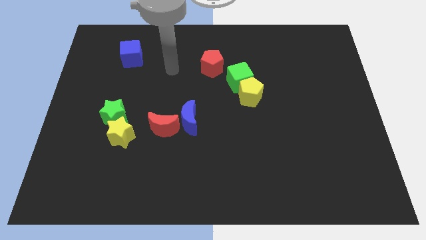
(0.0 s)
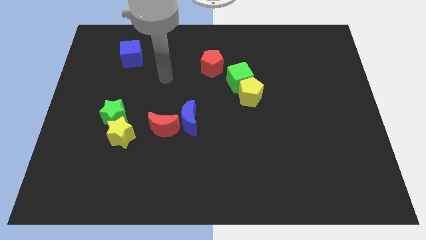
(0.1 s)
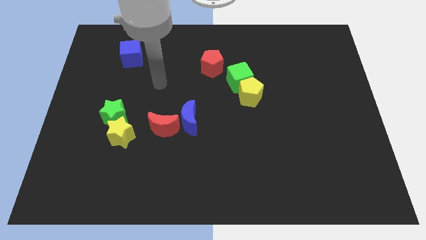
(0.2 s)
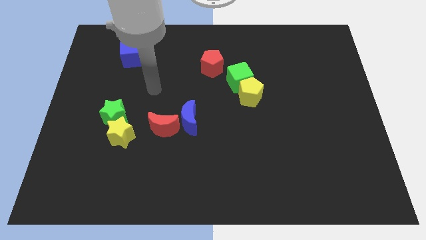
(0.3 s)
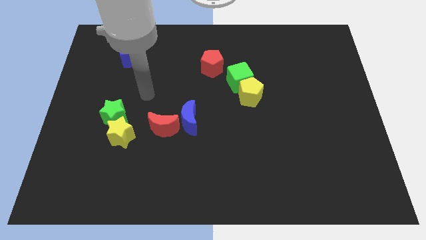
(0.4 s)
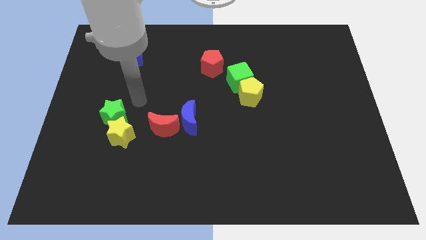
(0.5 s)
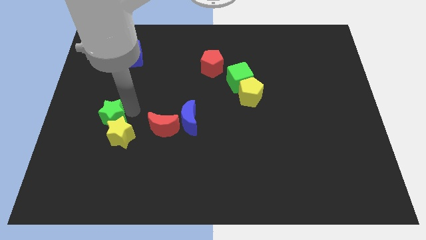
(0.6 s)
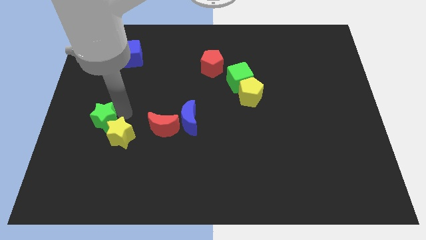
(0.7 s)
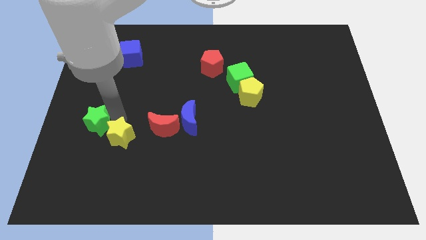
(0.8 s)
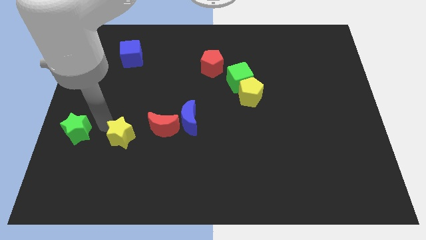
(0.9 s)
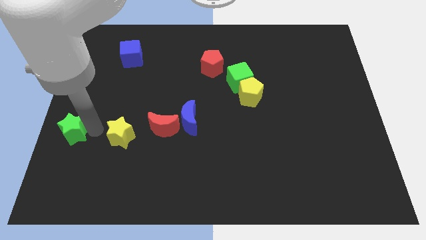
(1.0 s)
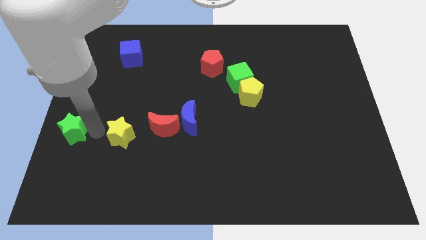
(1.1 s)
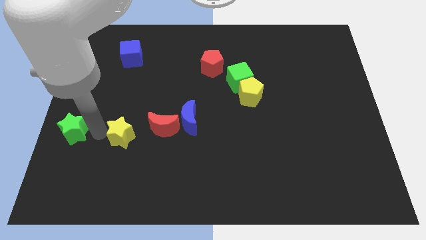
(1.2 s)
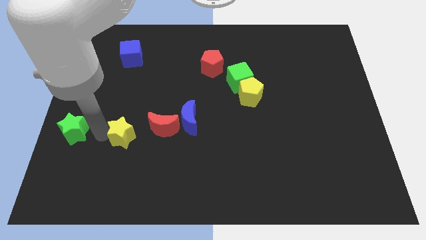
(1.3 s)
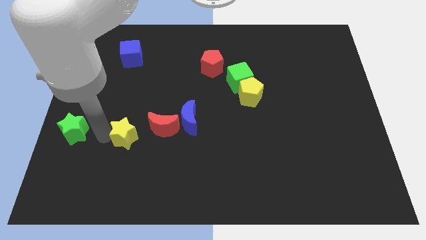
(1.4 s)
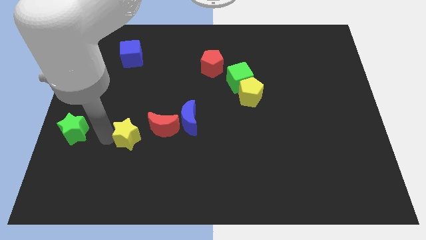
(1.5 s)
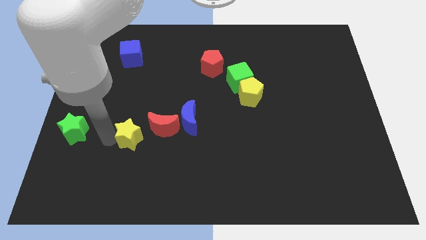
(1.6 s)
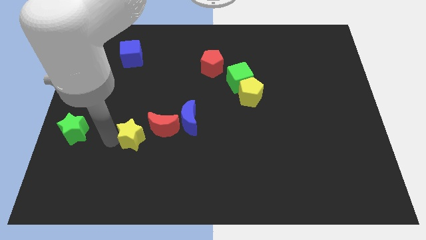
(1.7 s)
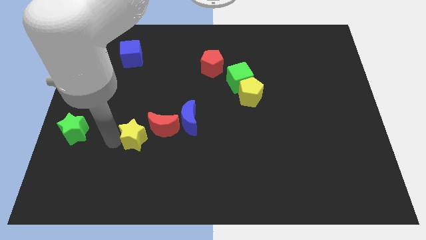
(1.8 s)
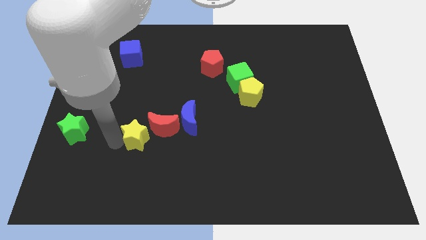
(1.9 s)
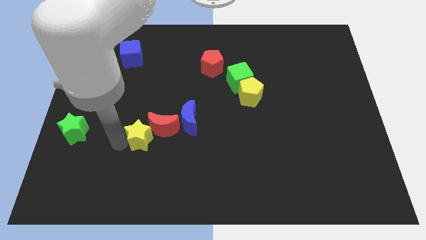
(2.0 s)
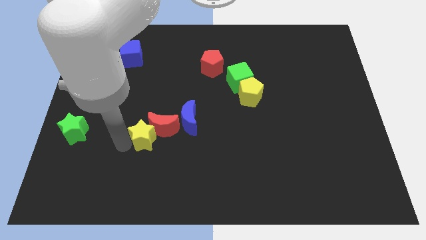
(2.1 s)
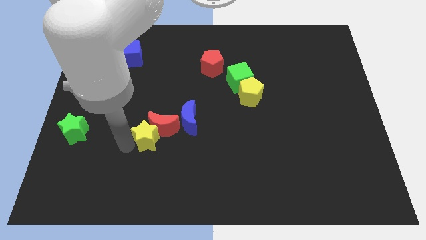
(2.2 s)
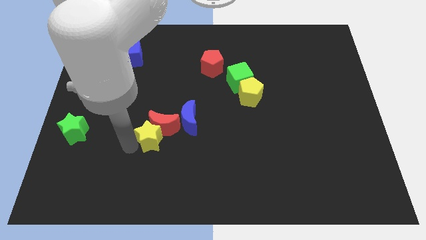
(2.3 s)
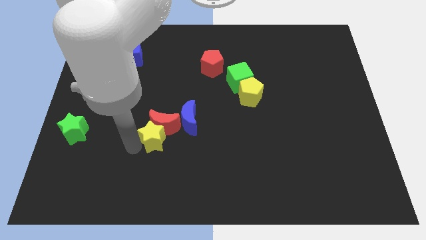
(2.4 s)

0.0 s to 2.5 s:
push the yellow star slightly right

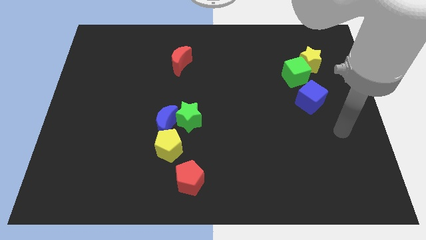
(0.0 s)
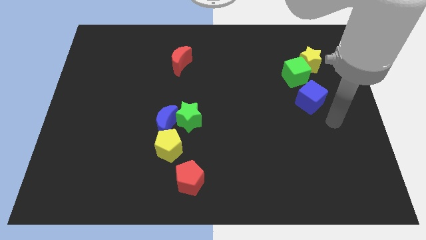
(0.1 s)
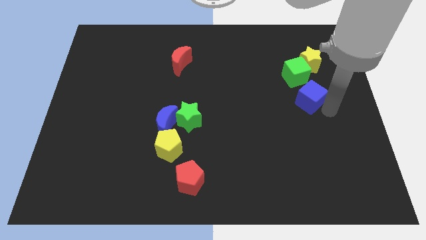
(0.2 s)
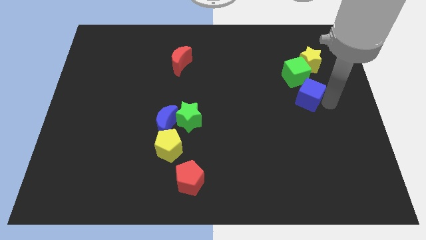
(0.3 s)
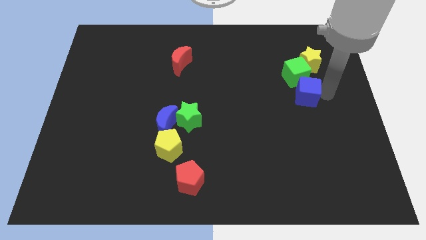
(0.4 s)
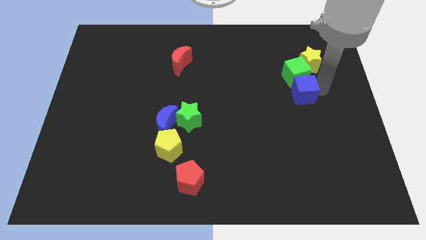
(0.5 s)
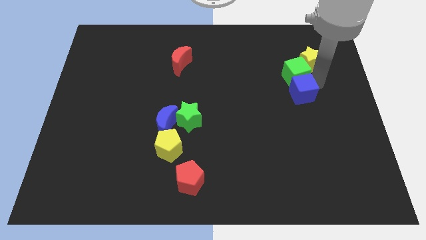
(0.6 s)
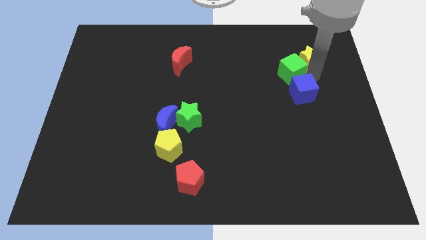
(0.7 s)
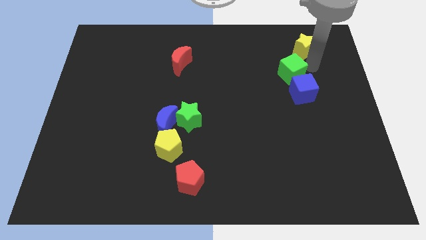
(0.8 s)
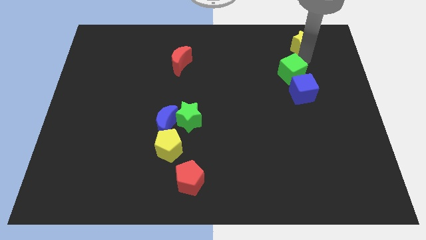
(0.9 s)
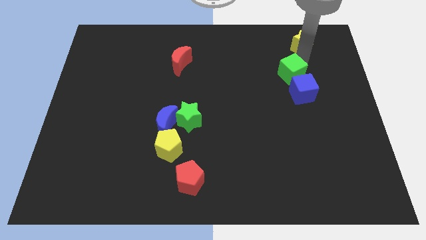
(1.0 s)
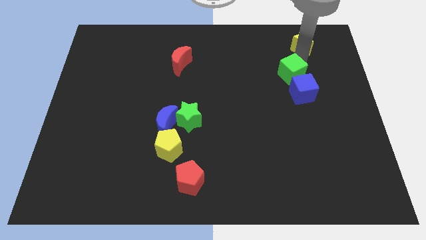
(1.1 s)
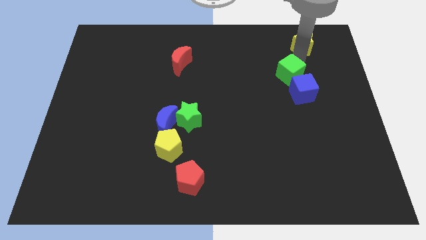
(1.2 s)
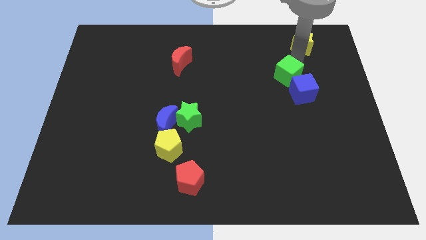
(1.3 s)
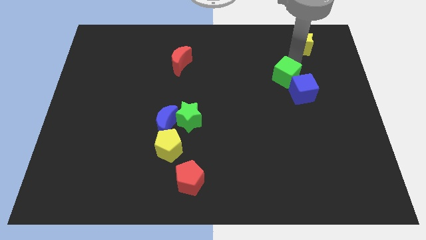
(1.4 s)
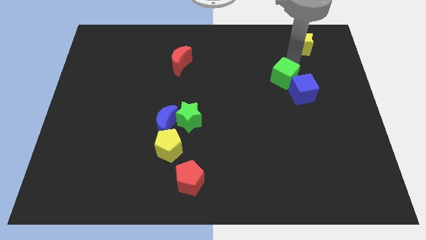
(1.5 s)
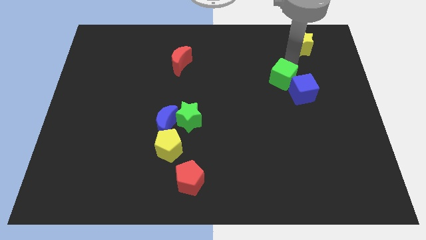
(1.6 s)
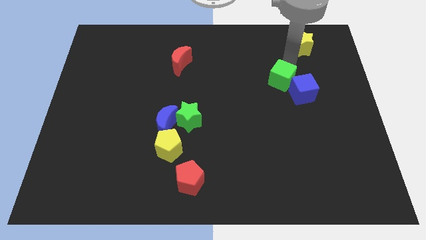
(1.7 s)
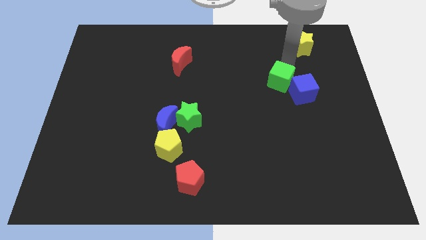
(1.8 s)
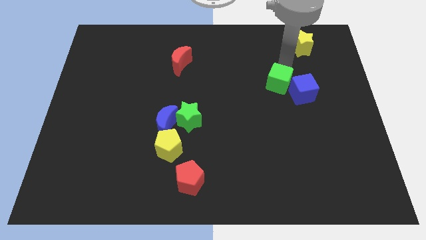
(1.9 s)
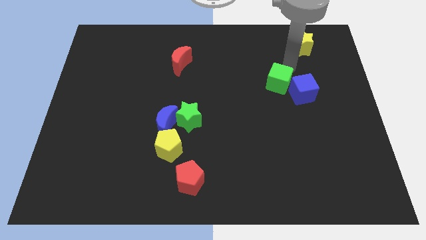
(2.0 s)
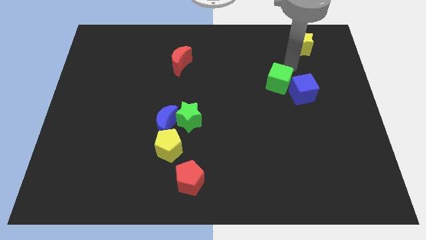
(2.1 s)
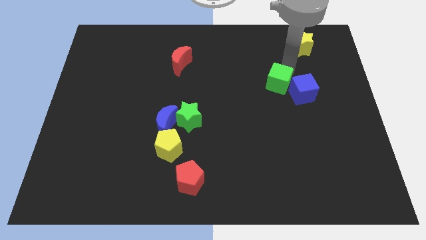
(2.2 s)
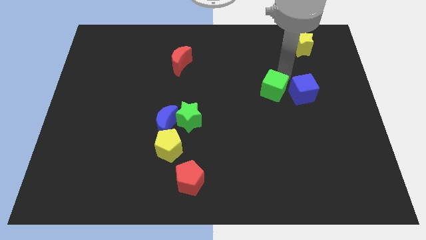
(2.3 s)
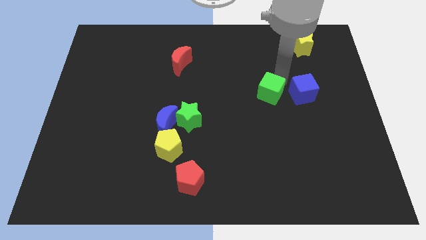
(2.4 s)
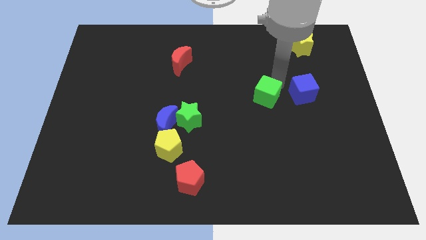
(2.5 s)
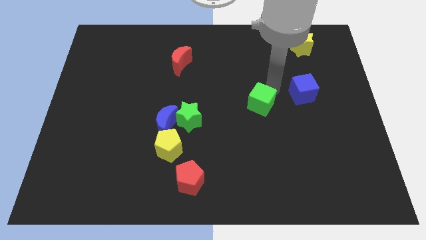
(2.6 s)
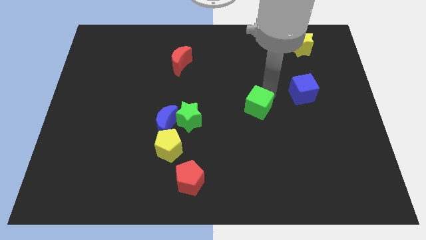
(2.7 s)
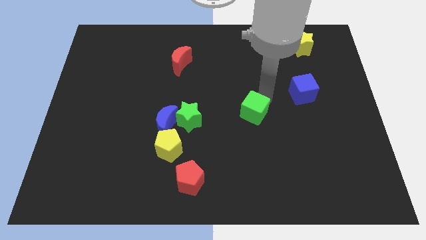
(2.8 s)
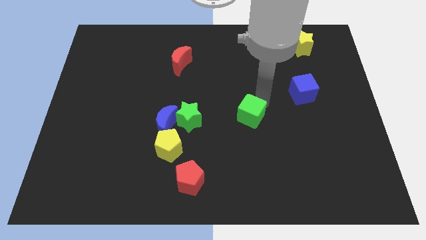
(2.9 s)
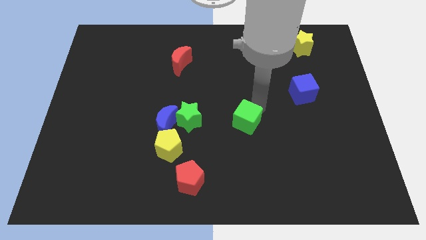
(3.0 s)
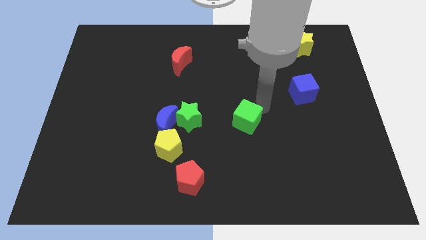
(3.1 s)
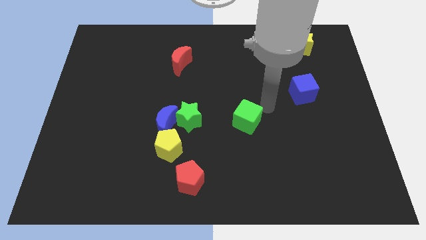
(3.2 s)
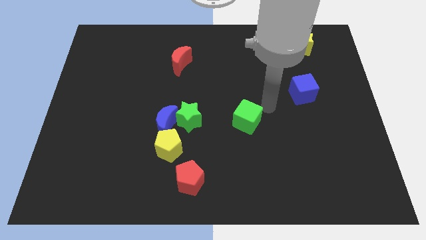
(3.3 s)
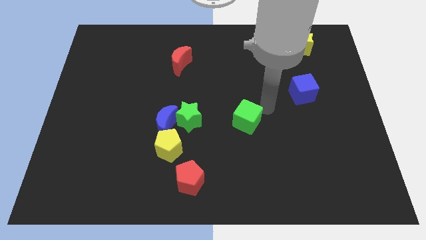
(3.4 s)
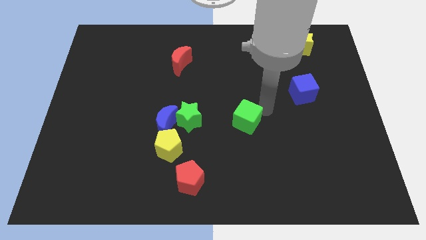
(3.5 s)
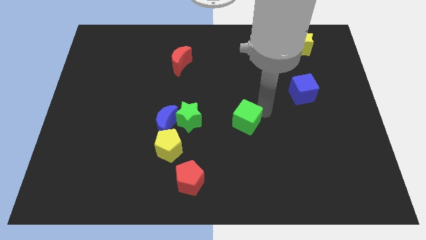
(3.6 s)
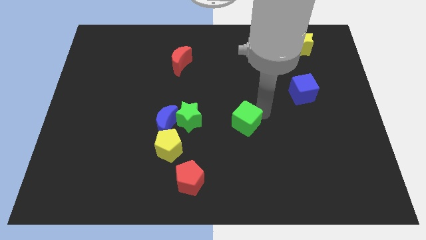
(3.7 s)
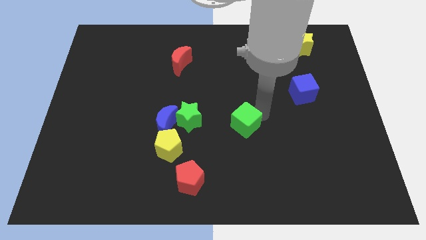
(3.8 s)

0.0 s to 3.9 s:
move the green cube downwards and then left

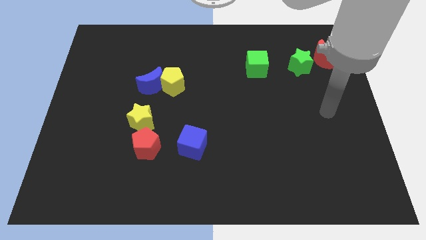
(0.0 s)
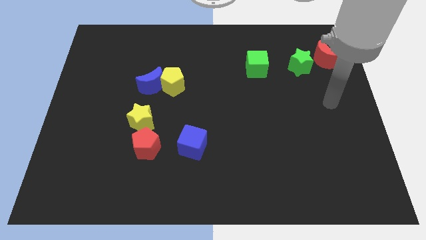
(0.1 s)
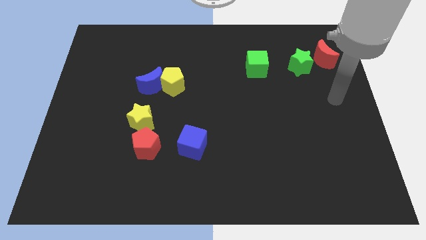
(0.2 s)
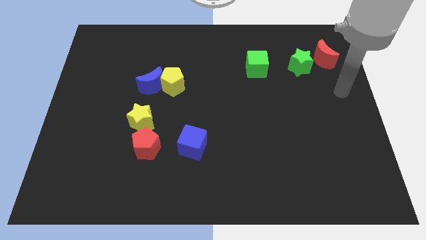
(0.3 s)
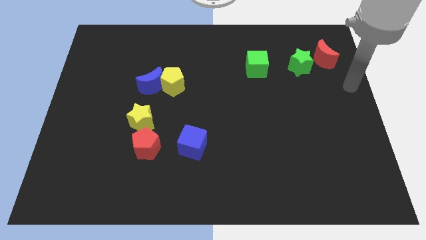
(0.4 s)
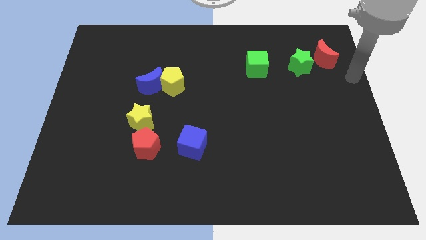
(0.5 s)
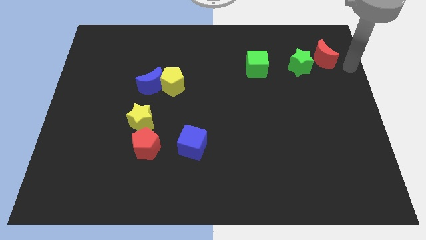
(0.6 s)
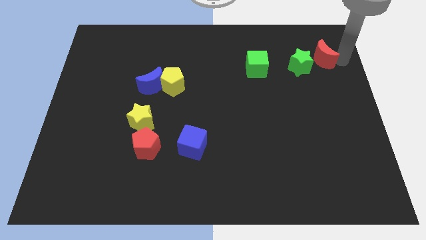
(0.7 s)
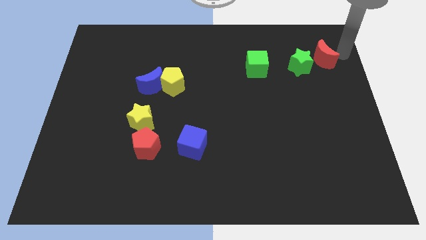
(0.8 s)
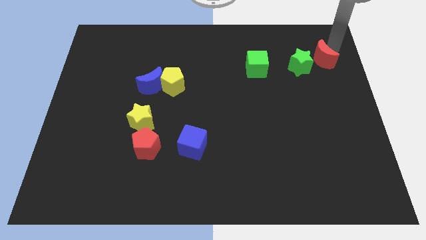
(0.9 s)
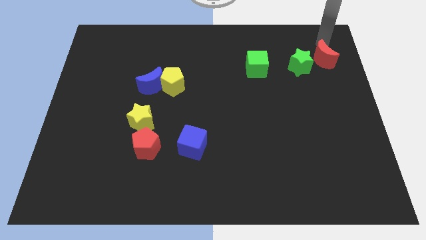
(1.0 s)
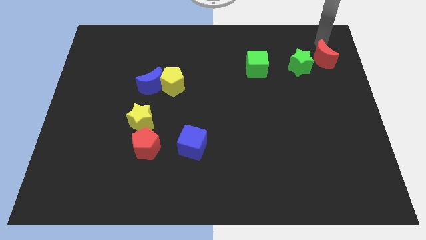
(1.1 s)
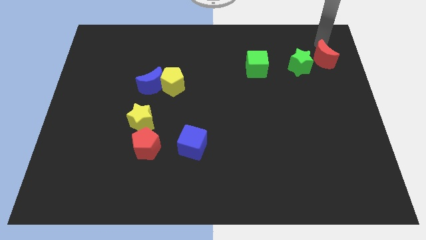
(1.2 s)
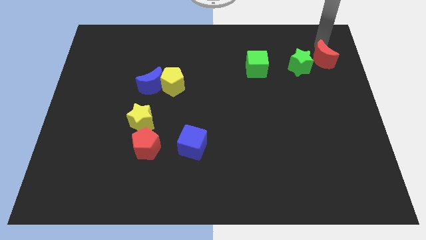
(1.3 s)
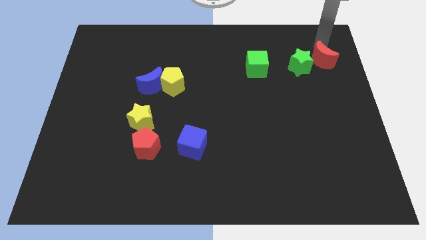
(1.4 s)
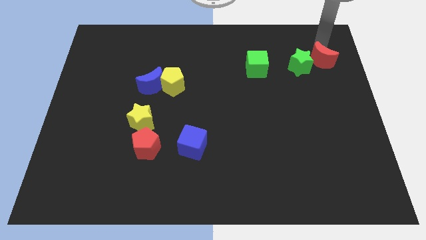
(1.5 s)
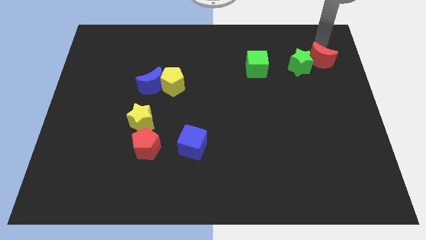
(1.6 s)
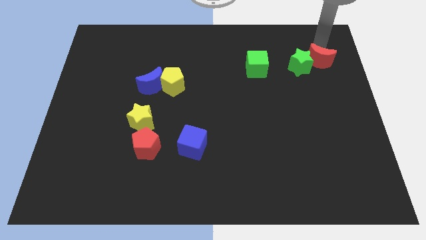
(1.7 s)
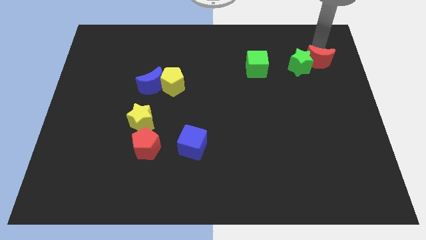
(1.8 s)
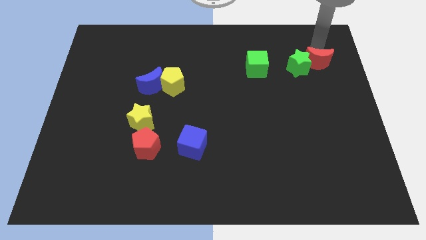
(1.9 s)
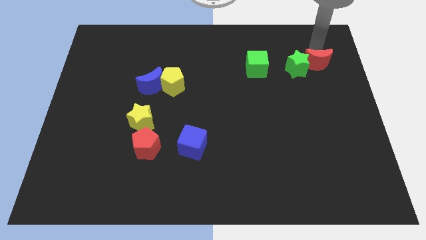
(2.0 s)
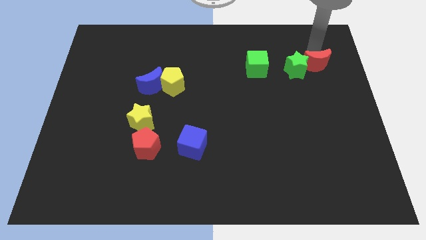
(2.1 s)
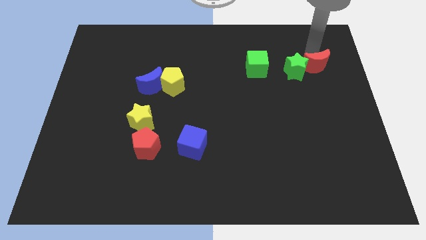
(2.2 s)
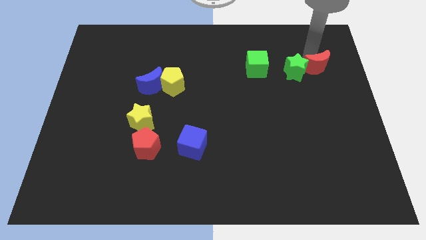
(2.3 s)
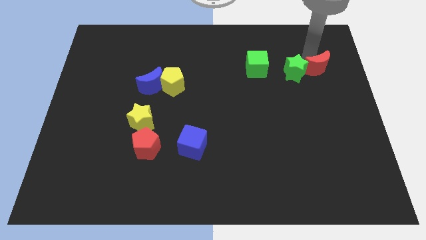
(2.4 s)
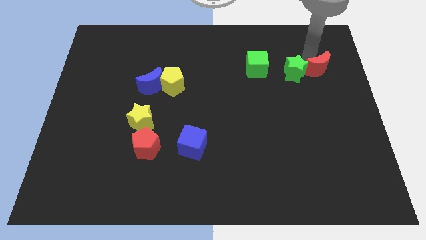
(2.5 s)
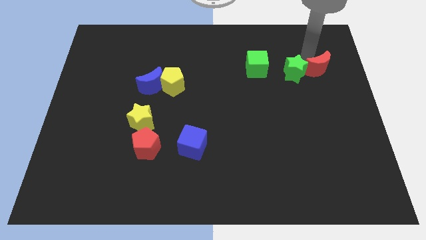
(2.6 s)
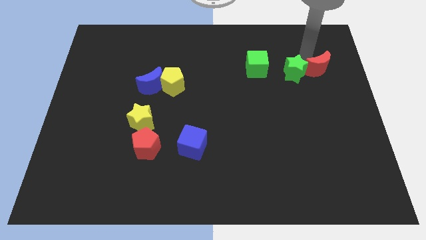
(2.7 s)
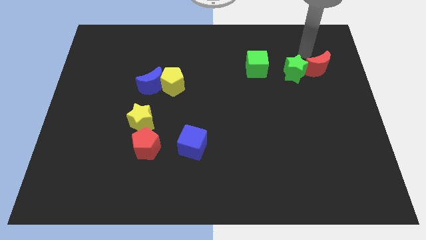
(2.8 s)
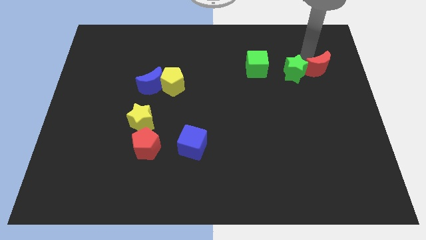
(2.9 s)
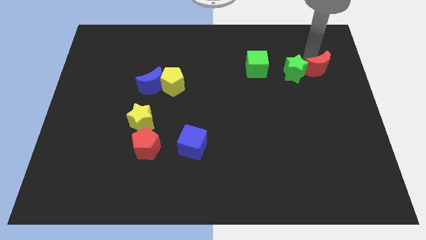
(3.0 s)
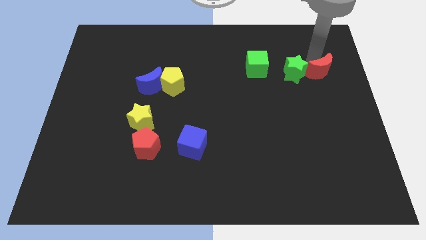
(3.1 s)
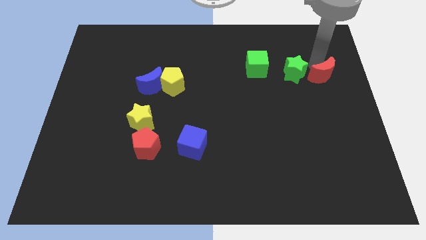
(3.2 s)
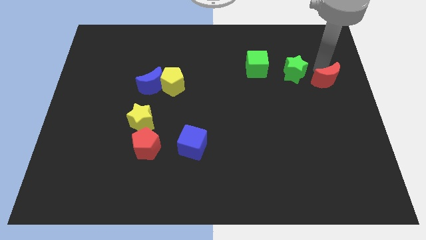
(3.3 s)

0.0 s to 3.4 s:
slide the red moon a bit downwards
